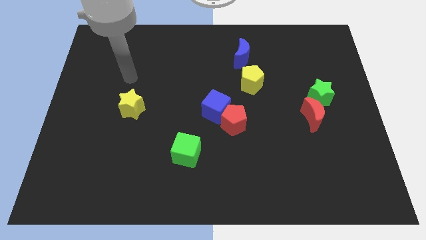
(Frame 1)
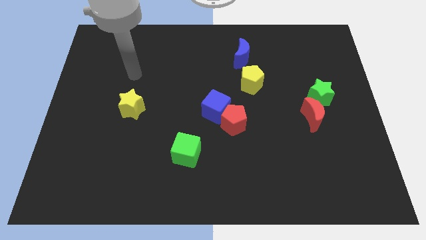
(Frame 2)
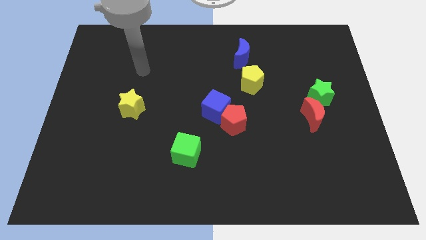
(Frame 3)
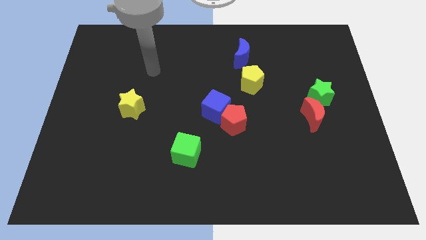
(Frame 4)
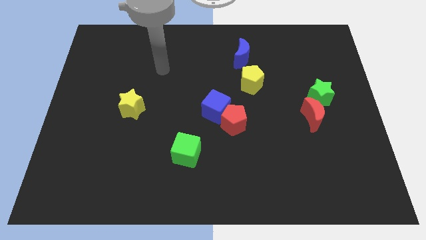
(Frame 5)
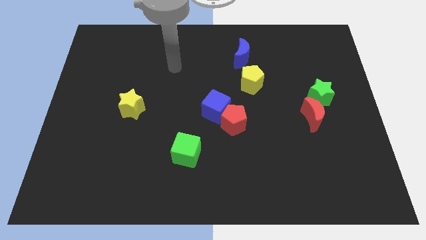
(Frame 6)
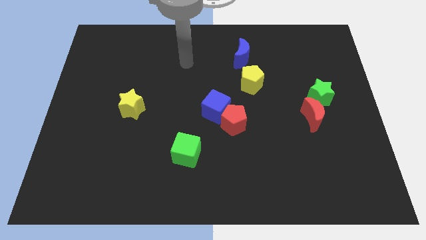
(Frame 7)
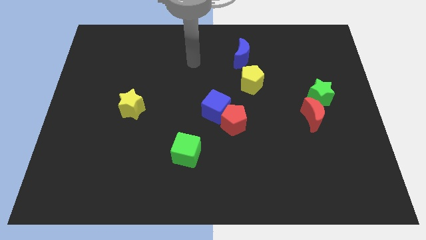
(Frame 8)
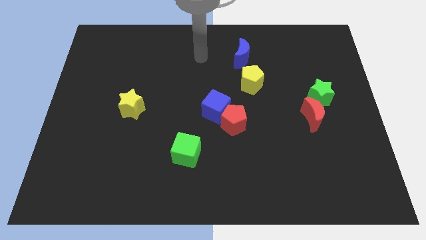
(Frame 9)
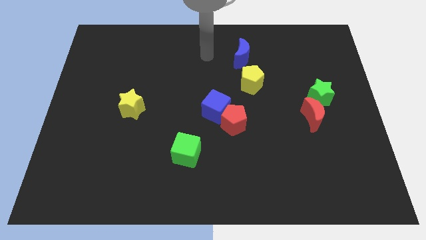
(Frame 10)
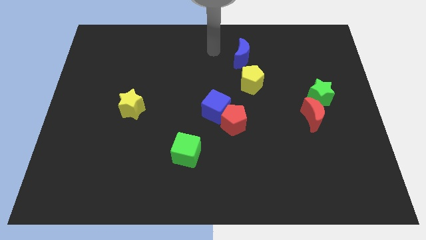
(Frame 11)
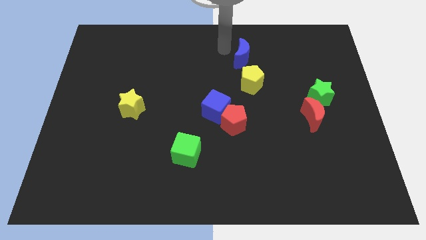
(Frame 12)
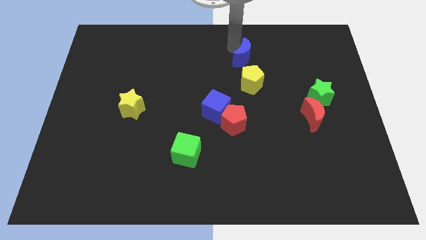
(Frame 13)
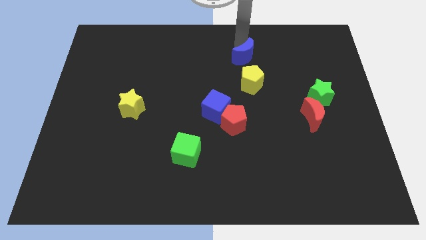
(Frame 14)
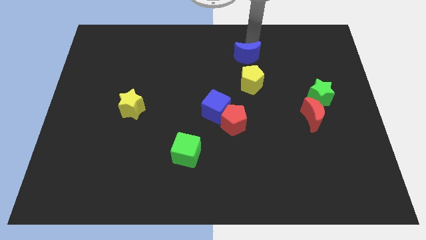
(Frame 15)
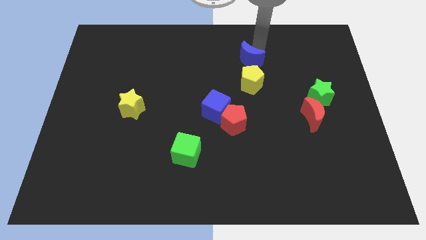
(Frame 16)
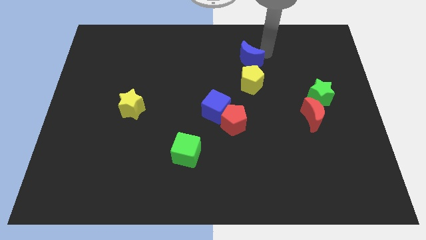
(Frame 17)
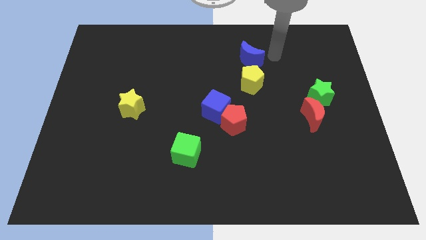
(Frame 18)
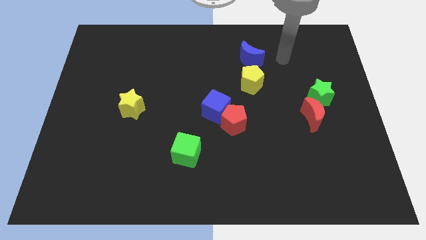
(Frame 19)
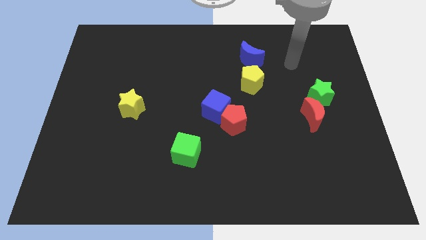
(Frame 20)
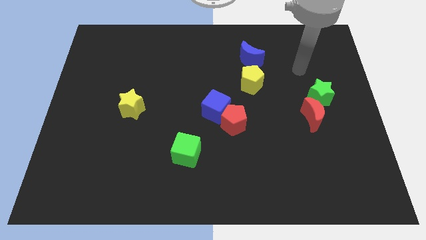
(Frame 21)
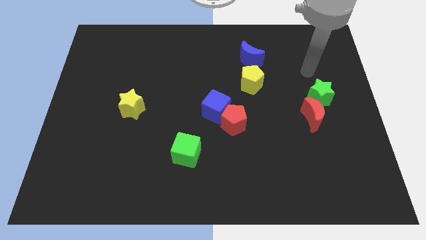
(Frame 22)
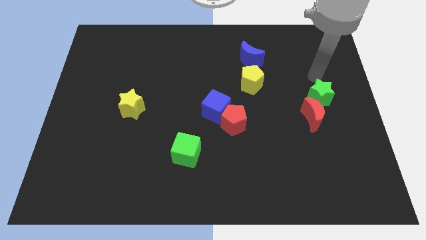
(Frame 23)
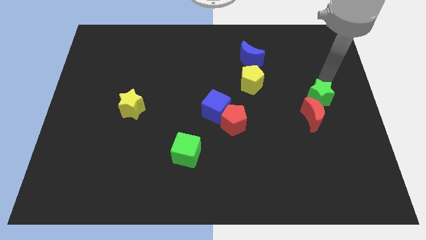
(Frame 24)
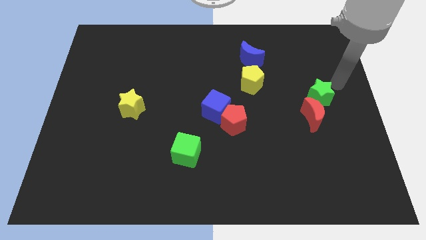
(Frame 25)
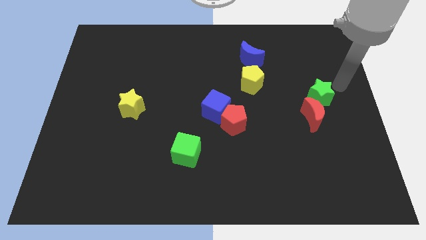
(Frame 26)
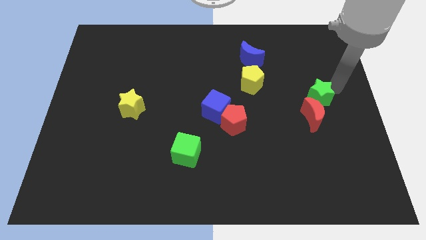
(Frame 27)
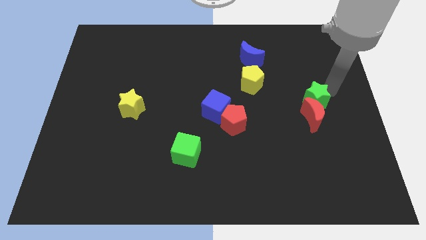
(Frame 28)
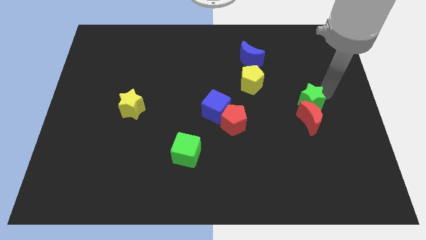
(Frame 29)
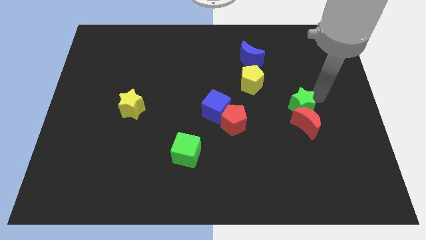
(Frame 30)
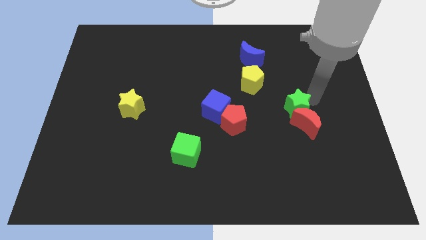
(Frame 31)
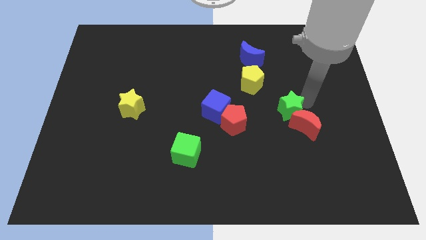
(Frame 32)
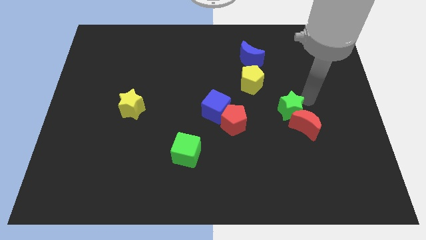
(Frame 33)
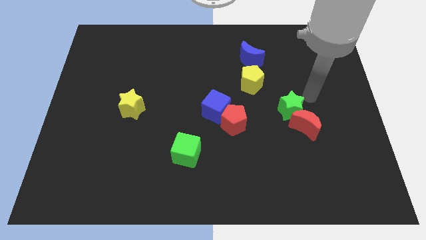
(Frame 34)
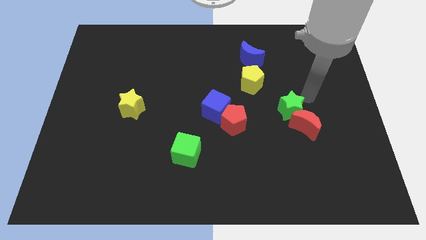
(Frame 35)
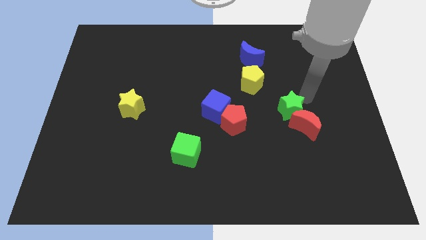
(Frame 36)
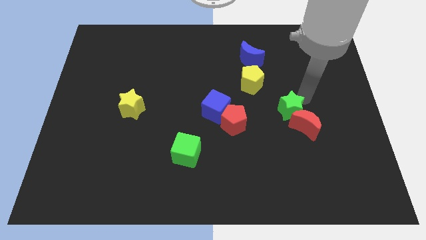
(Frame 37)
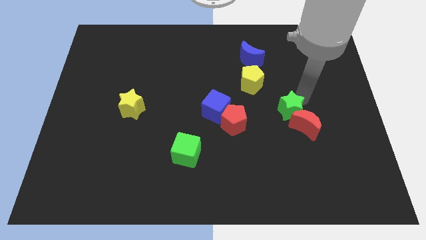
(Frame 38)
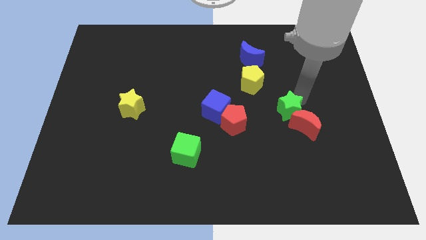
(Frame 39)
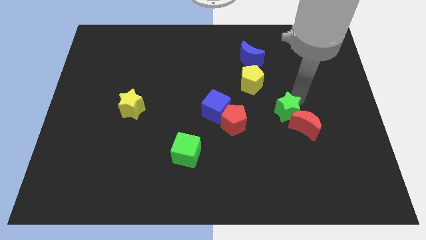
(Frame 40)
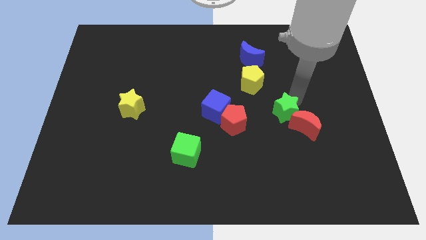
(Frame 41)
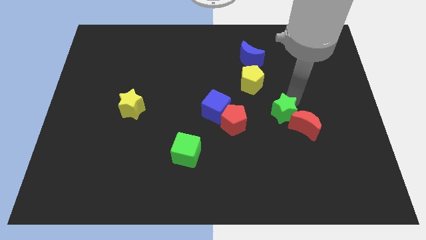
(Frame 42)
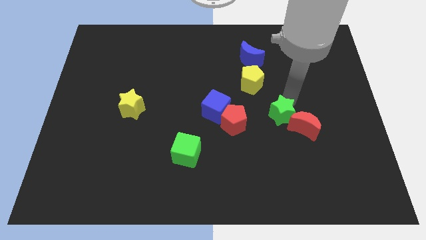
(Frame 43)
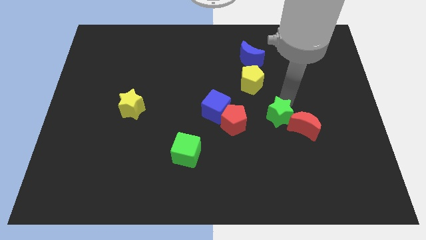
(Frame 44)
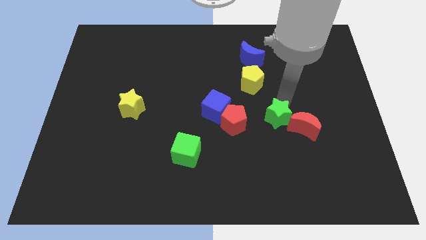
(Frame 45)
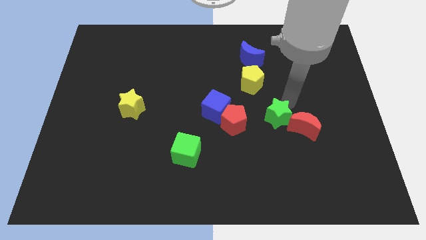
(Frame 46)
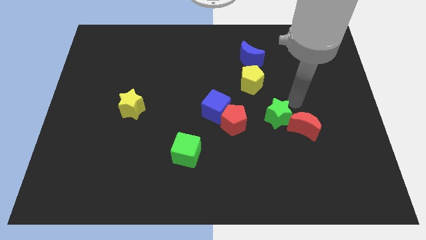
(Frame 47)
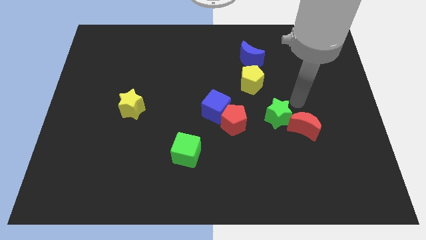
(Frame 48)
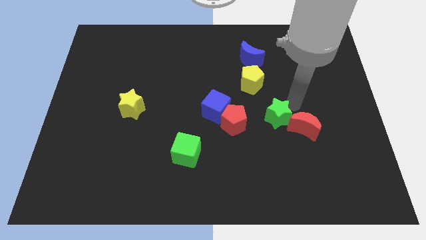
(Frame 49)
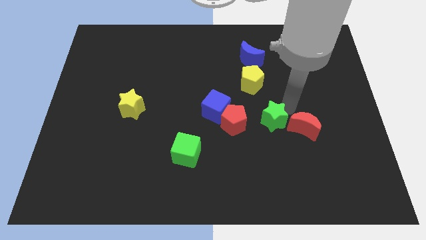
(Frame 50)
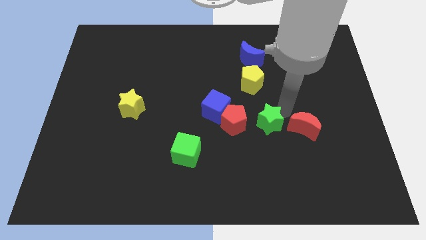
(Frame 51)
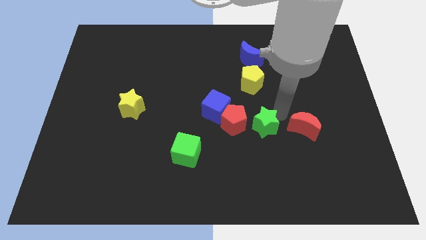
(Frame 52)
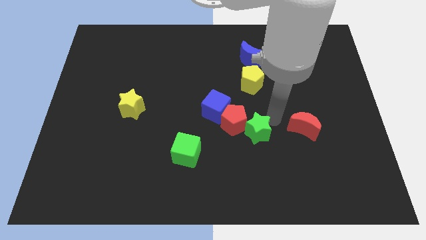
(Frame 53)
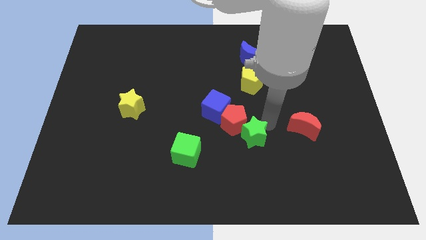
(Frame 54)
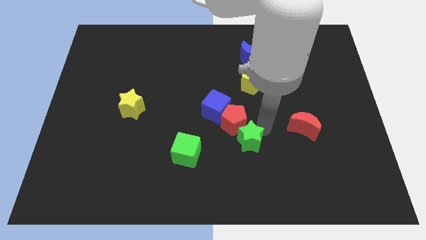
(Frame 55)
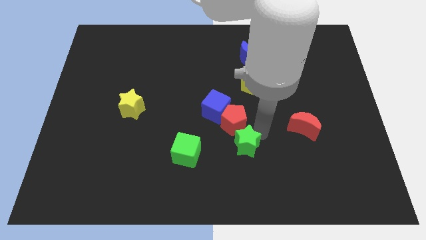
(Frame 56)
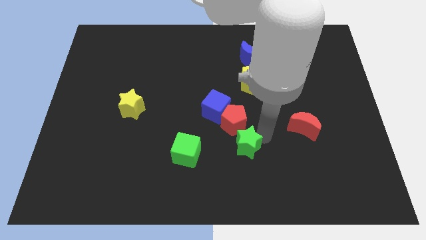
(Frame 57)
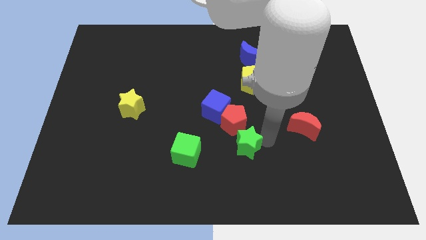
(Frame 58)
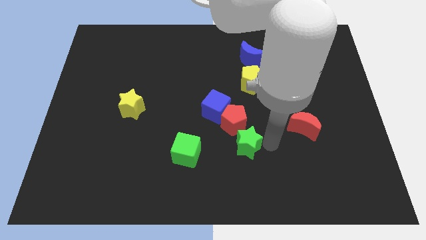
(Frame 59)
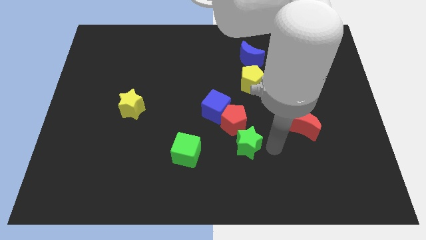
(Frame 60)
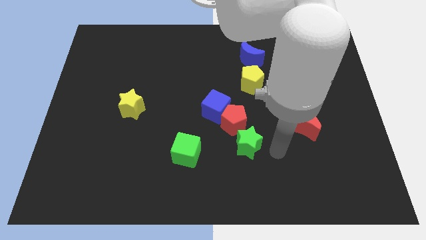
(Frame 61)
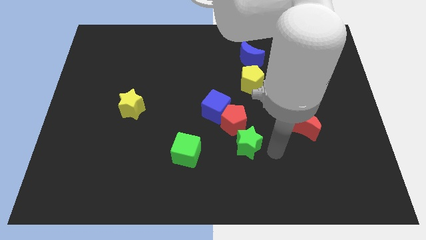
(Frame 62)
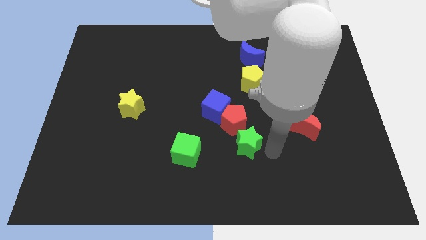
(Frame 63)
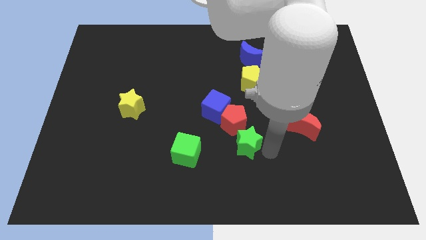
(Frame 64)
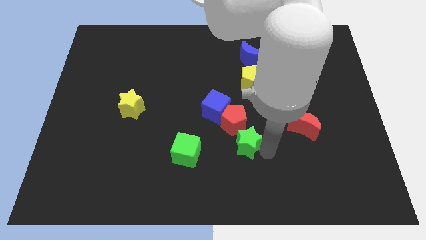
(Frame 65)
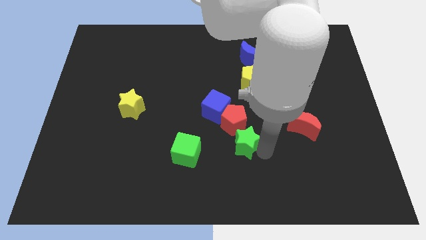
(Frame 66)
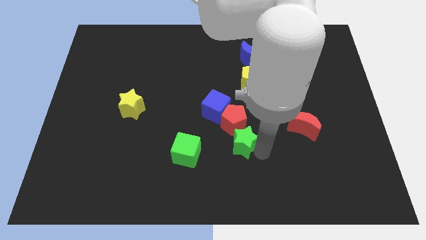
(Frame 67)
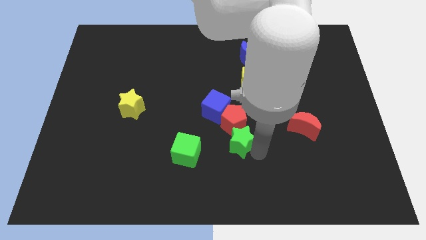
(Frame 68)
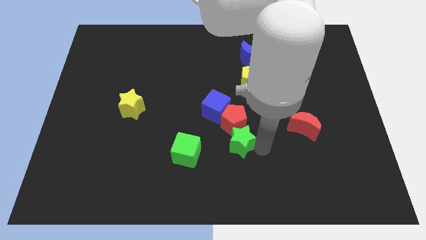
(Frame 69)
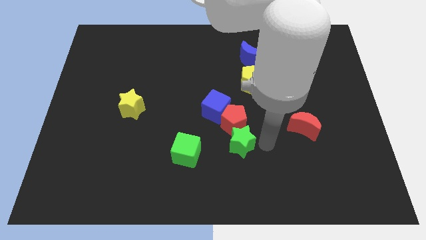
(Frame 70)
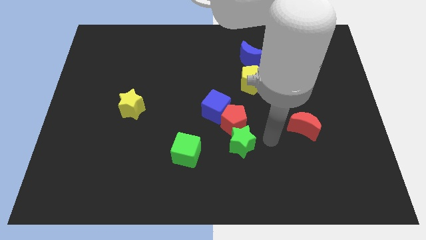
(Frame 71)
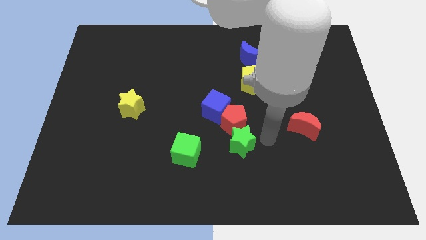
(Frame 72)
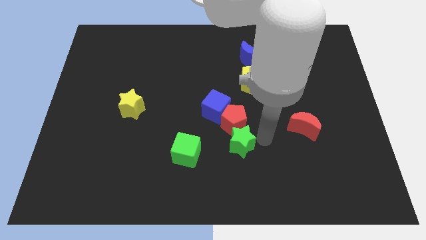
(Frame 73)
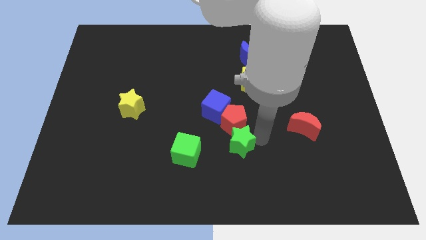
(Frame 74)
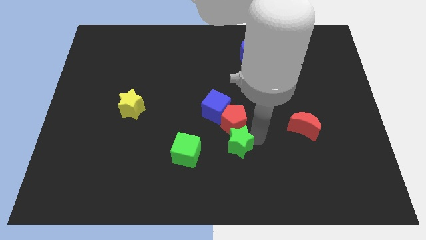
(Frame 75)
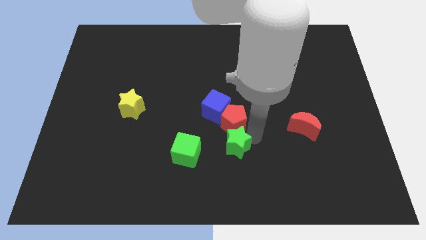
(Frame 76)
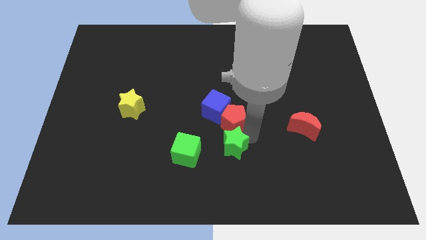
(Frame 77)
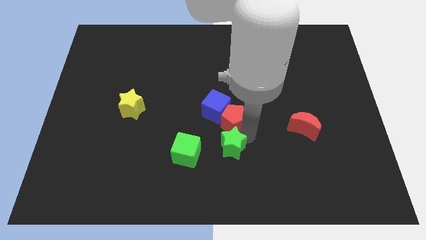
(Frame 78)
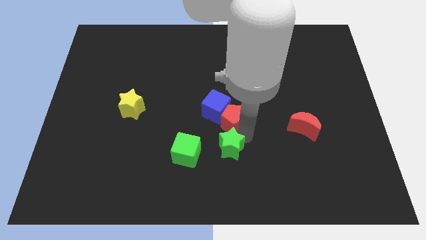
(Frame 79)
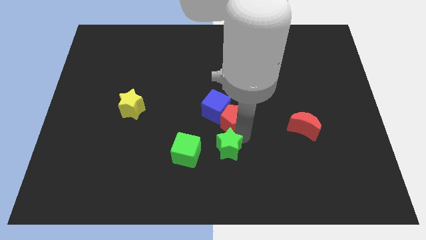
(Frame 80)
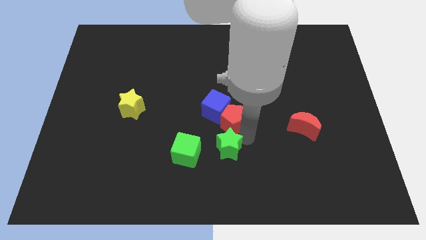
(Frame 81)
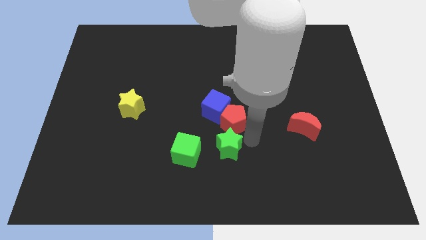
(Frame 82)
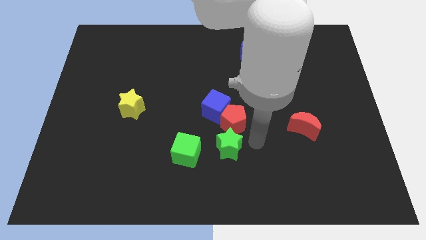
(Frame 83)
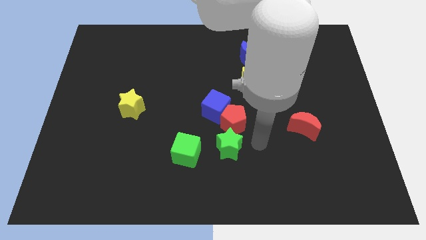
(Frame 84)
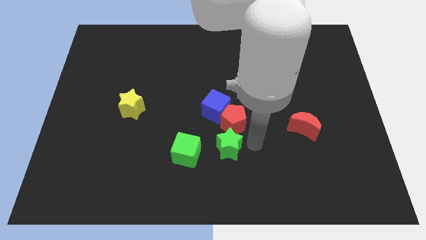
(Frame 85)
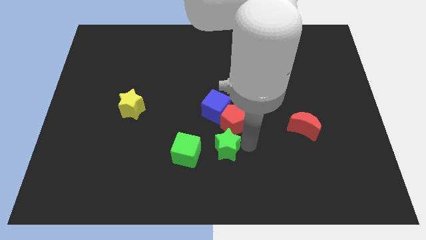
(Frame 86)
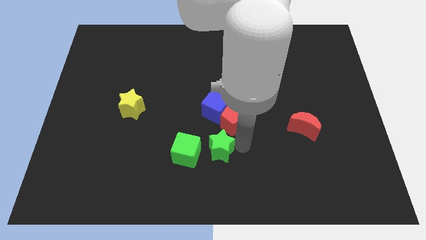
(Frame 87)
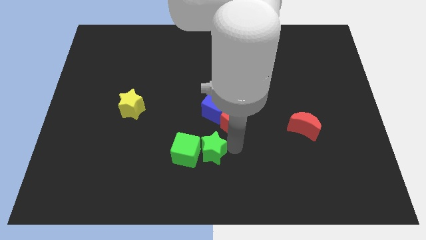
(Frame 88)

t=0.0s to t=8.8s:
push the green star next to the green cube
